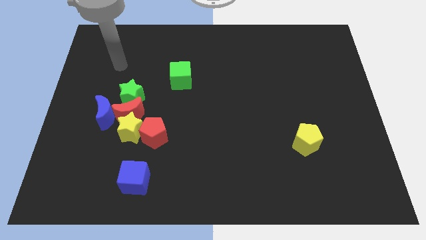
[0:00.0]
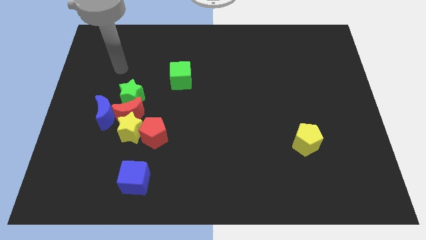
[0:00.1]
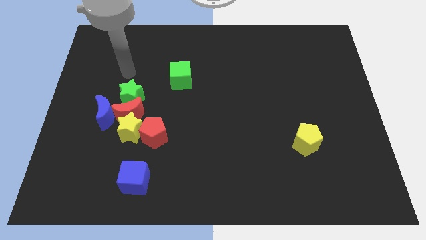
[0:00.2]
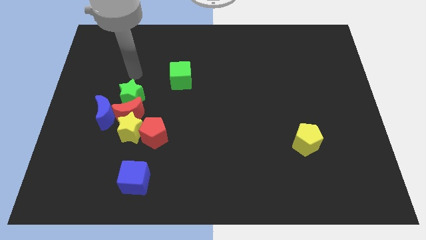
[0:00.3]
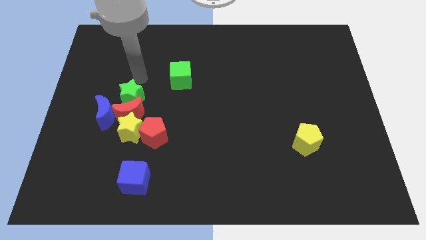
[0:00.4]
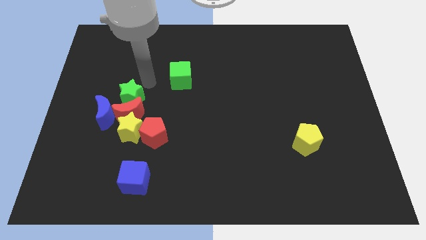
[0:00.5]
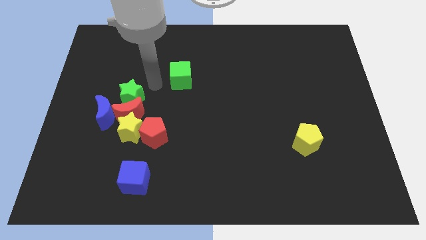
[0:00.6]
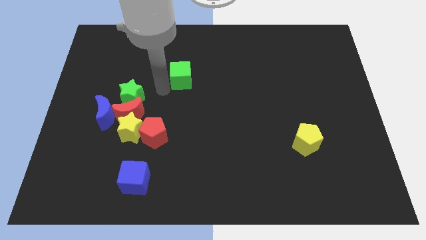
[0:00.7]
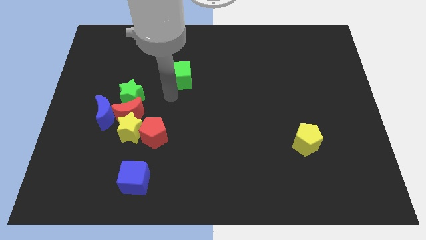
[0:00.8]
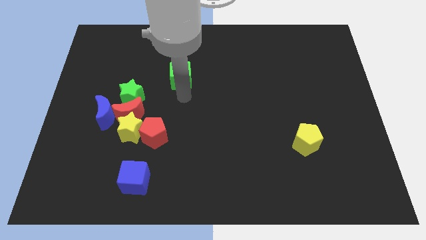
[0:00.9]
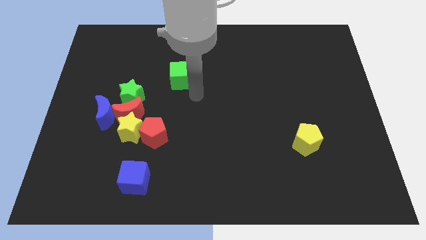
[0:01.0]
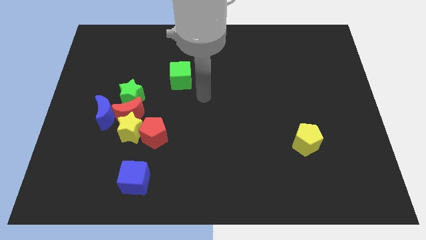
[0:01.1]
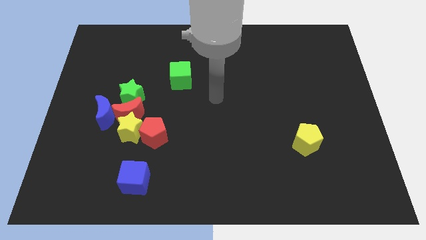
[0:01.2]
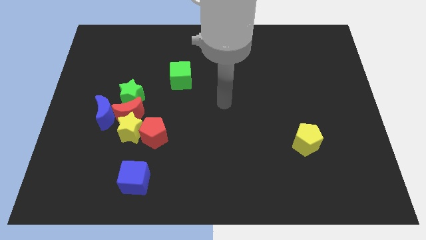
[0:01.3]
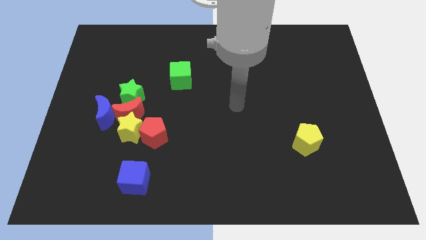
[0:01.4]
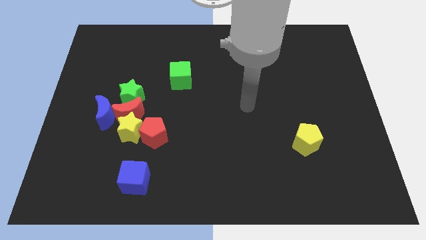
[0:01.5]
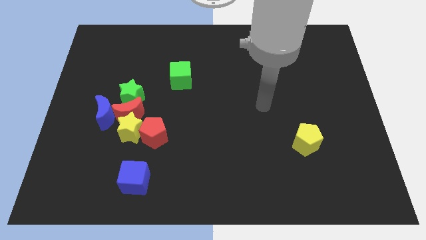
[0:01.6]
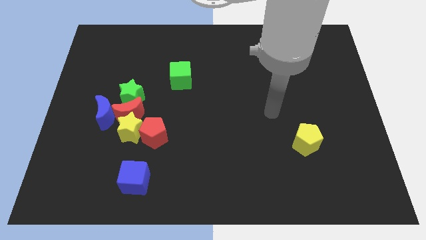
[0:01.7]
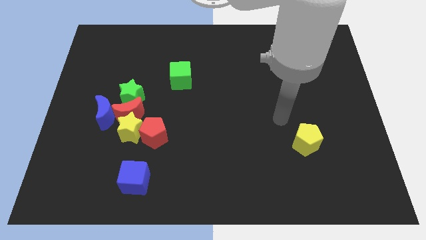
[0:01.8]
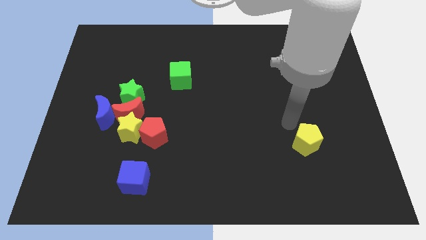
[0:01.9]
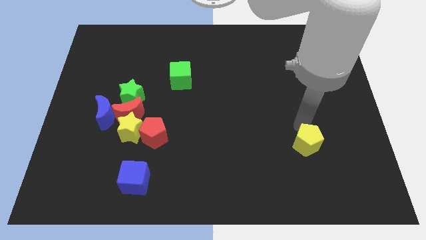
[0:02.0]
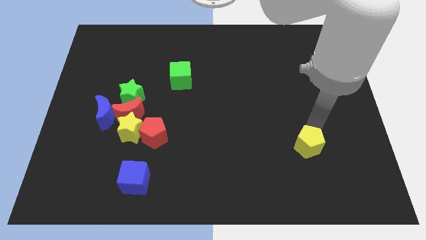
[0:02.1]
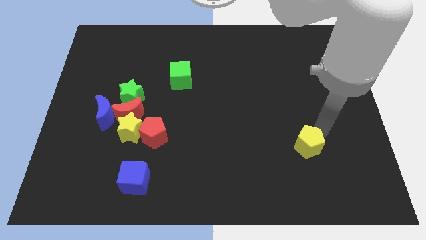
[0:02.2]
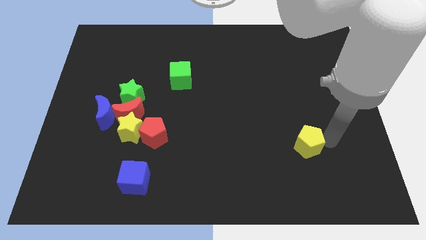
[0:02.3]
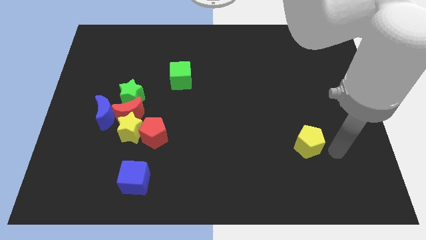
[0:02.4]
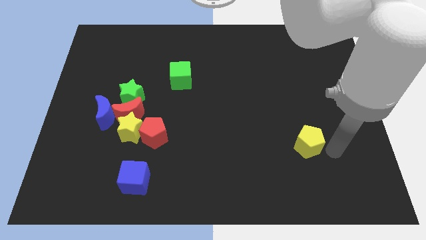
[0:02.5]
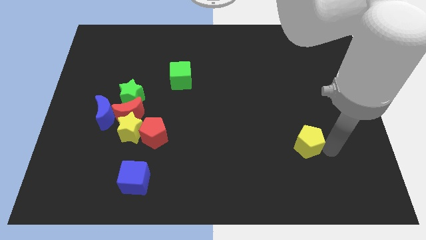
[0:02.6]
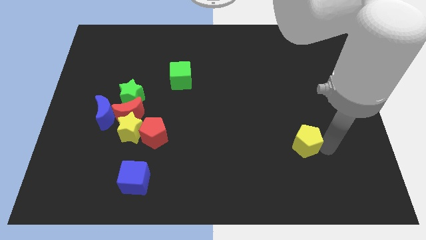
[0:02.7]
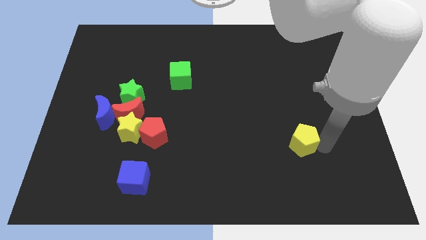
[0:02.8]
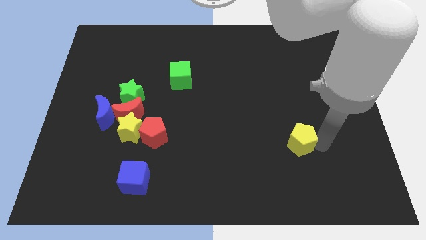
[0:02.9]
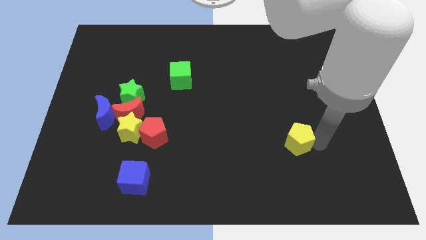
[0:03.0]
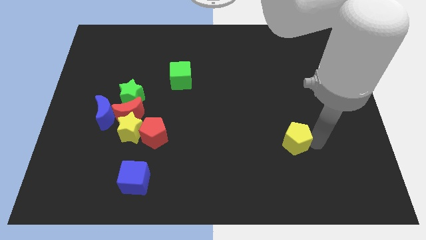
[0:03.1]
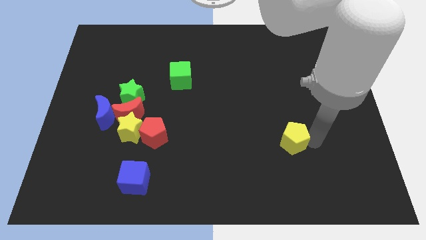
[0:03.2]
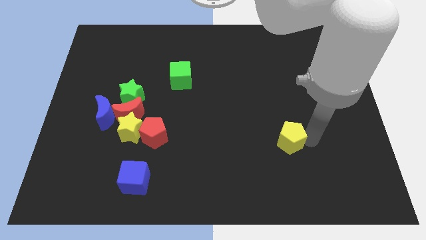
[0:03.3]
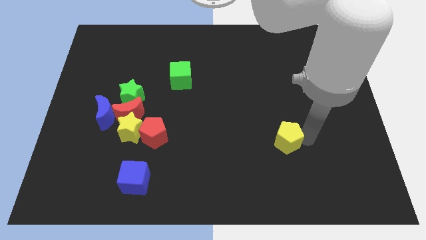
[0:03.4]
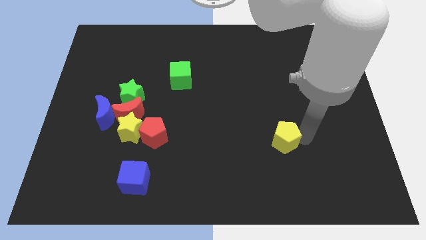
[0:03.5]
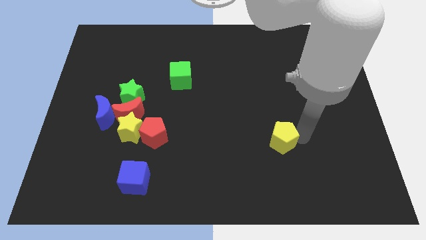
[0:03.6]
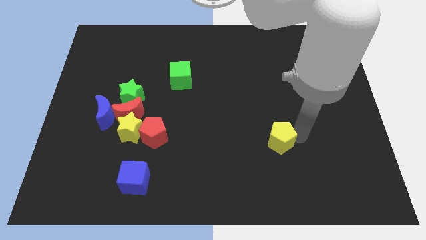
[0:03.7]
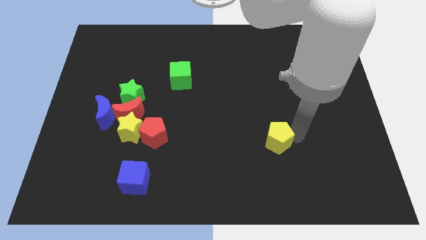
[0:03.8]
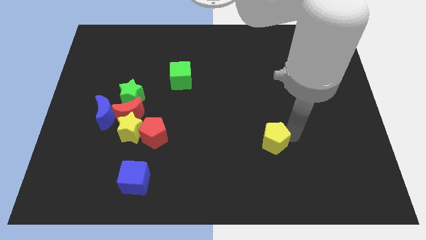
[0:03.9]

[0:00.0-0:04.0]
push the yellow pentagon a little to the left

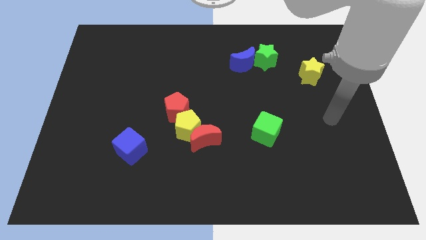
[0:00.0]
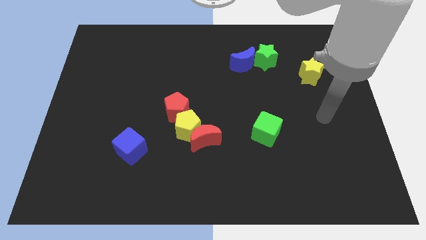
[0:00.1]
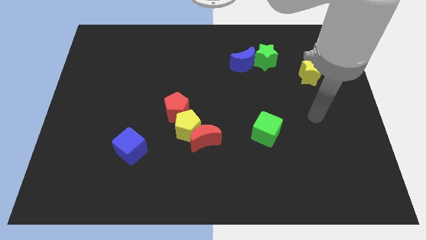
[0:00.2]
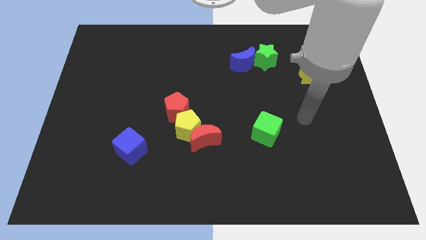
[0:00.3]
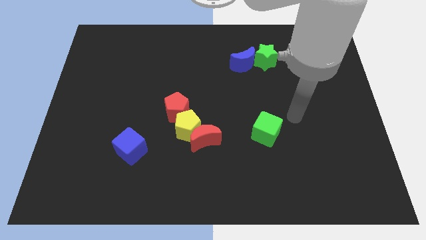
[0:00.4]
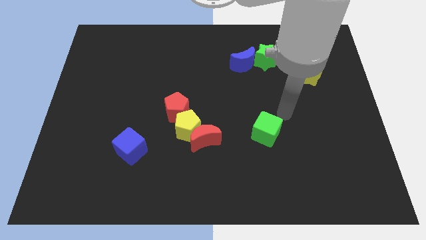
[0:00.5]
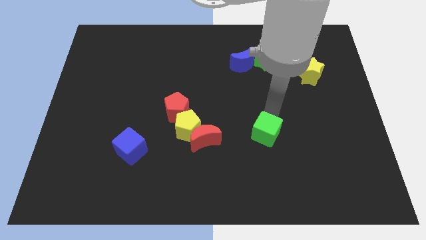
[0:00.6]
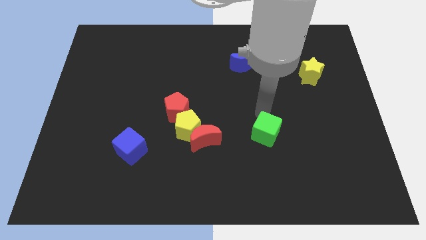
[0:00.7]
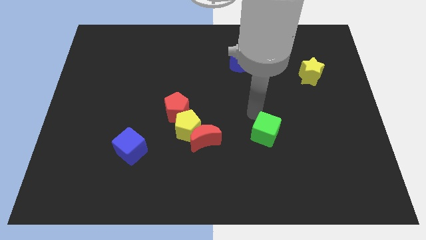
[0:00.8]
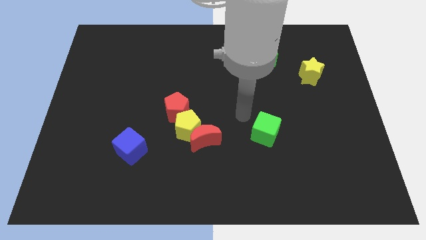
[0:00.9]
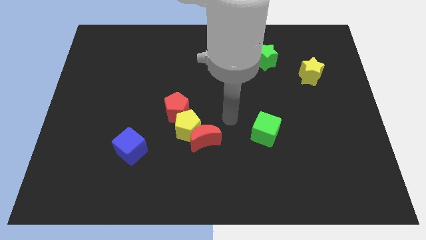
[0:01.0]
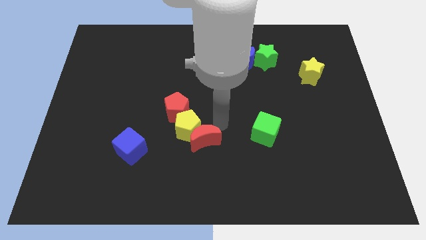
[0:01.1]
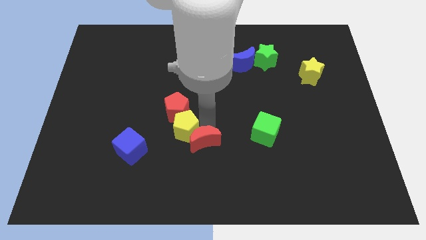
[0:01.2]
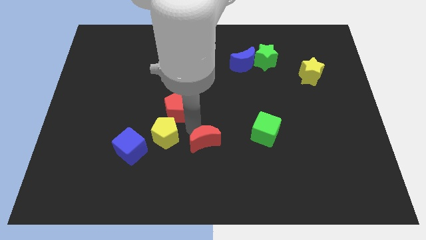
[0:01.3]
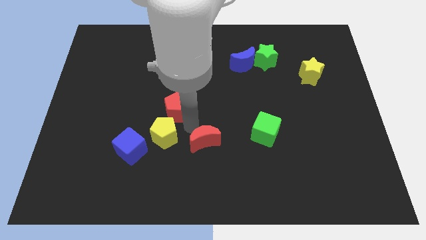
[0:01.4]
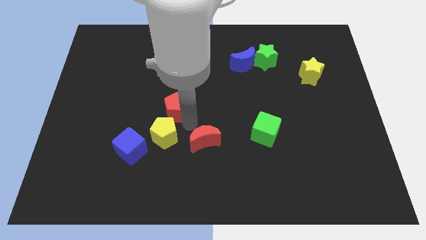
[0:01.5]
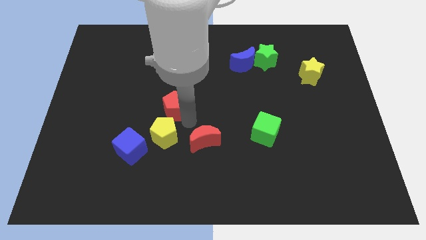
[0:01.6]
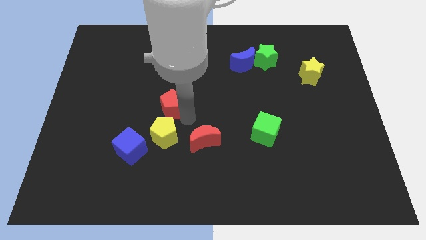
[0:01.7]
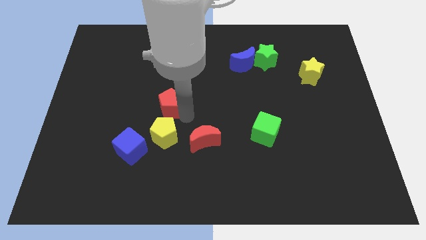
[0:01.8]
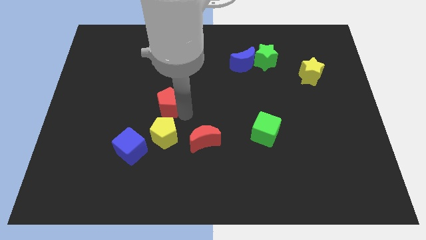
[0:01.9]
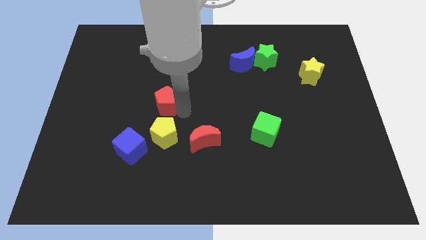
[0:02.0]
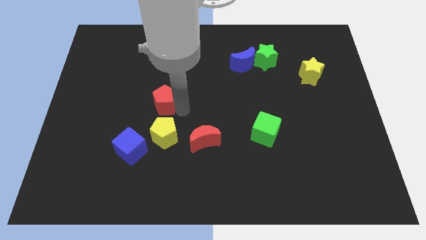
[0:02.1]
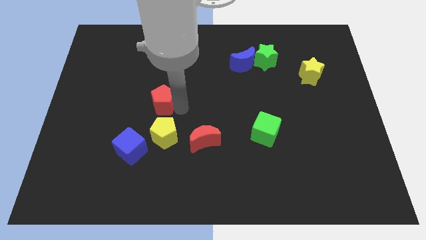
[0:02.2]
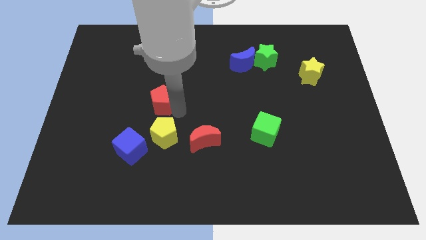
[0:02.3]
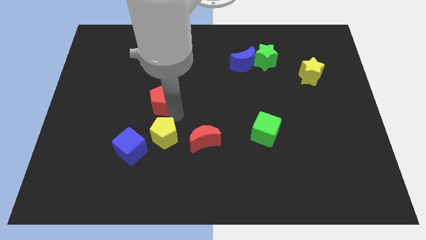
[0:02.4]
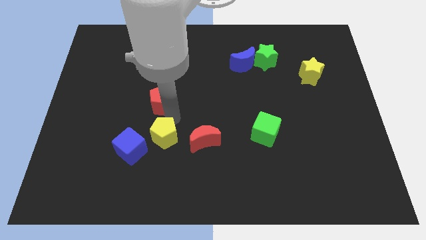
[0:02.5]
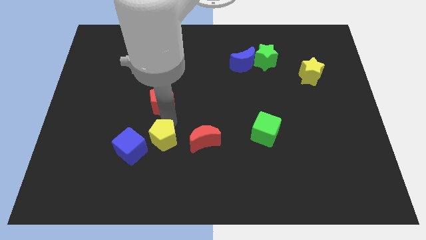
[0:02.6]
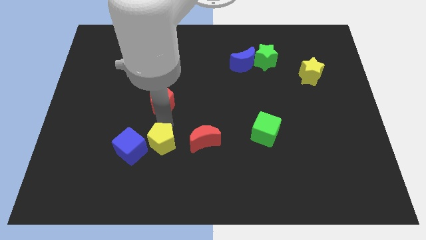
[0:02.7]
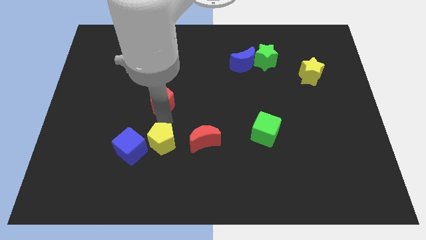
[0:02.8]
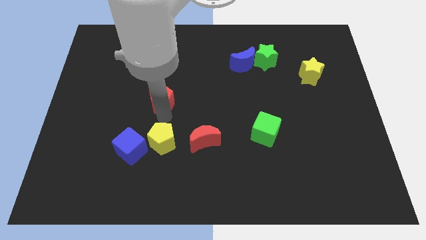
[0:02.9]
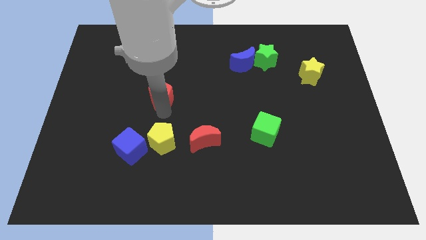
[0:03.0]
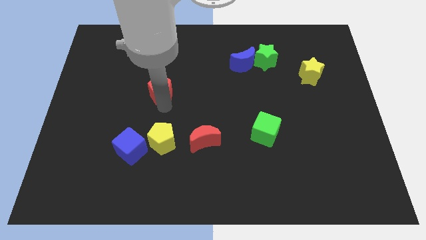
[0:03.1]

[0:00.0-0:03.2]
slightly slide the red pentagon diagonally up and left

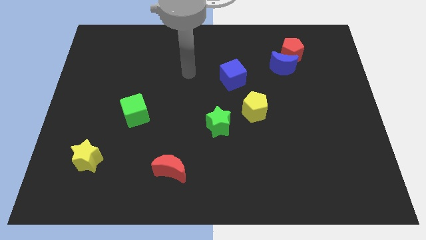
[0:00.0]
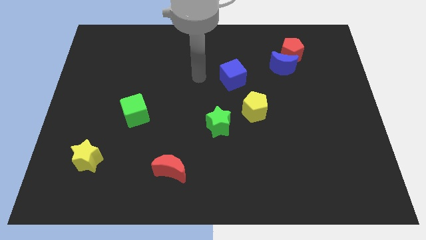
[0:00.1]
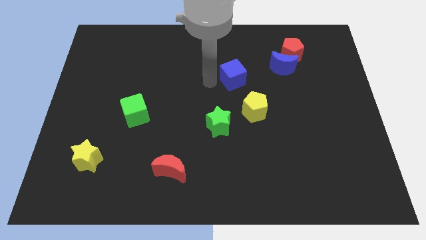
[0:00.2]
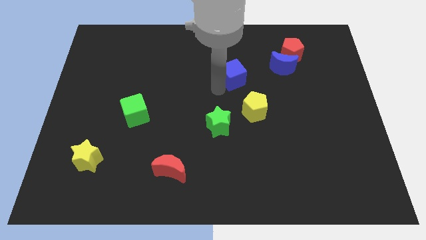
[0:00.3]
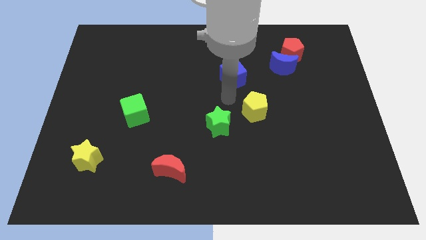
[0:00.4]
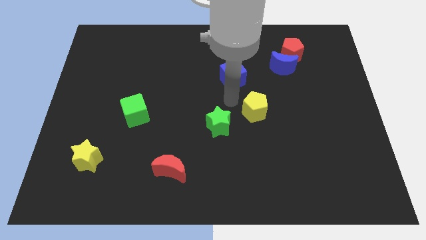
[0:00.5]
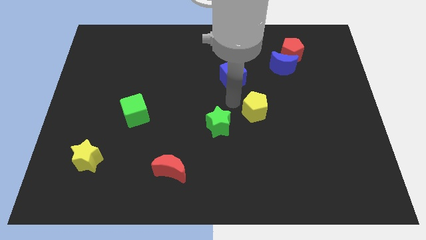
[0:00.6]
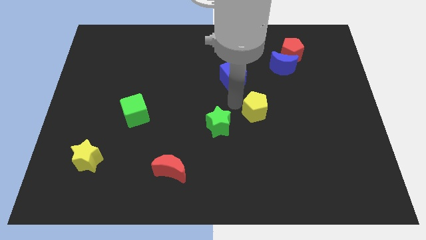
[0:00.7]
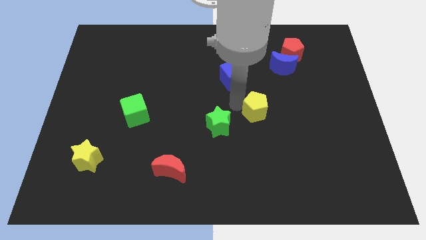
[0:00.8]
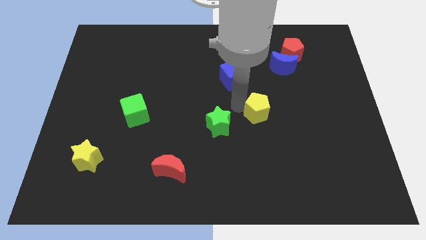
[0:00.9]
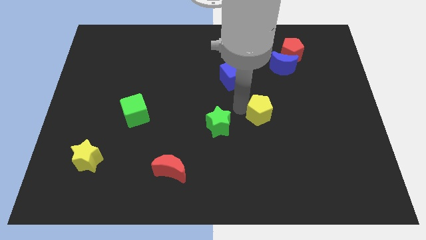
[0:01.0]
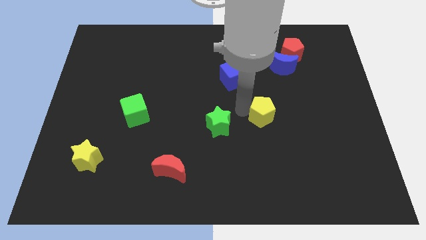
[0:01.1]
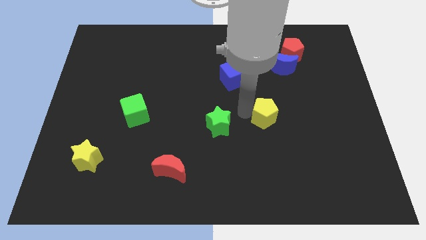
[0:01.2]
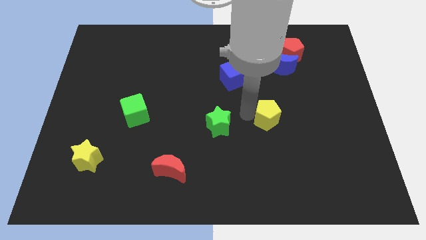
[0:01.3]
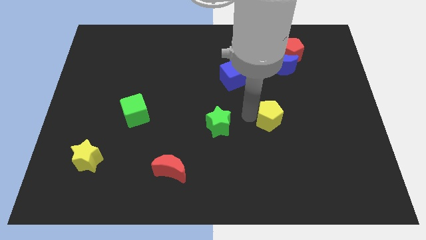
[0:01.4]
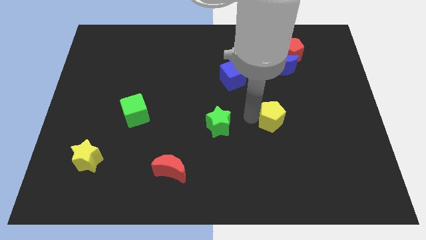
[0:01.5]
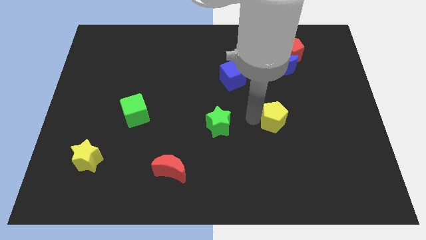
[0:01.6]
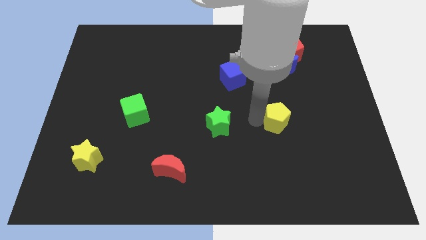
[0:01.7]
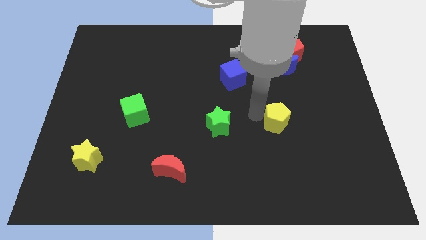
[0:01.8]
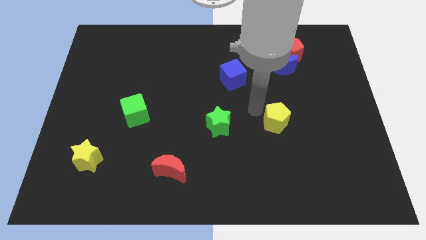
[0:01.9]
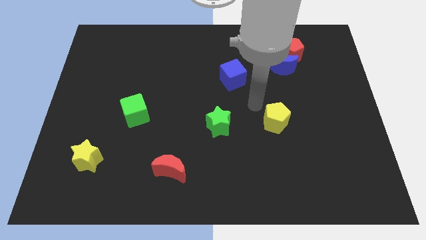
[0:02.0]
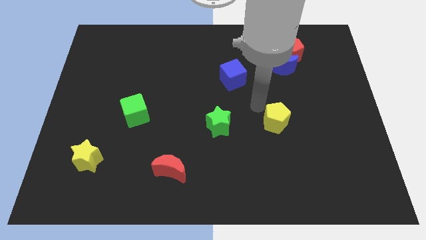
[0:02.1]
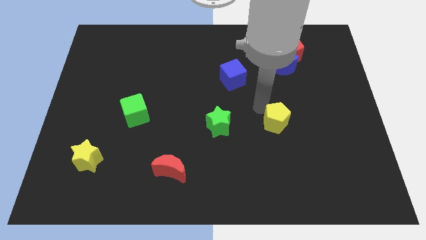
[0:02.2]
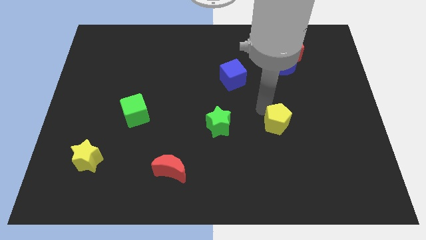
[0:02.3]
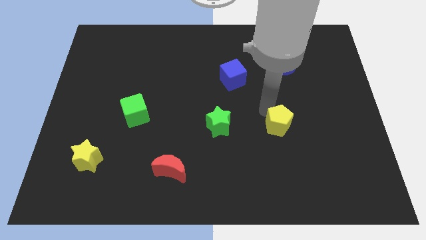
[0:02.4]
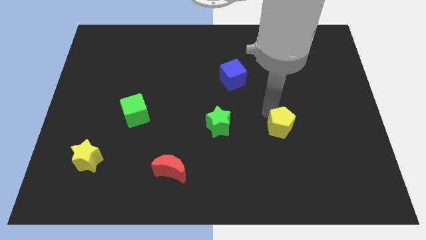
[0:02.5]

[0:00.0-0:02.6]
slightly move the yellow pentagon diagonally down and right
